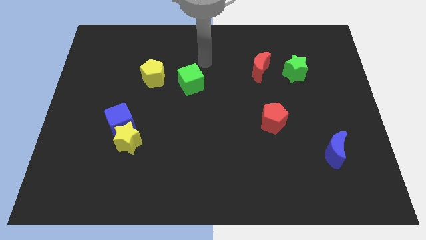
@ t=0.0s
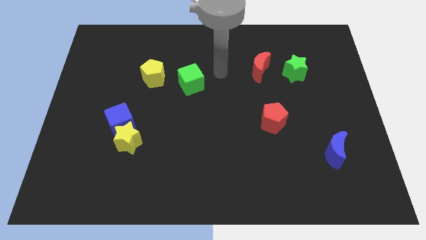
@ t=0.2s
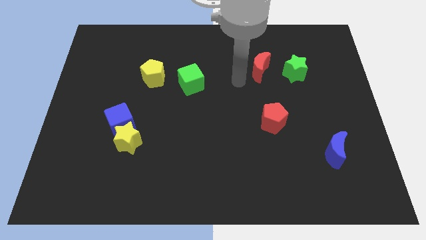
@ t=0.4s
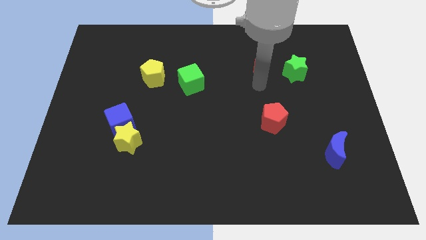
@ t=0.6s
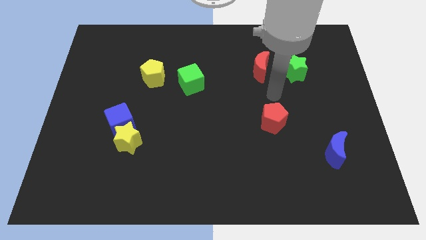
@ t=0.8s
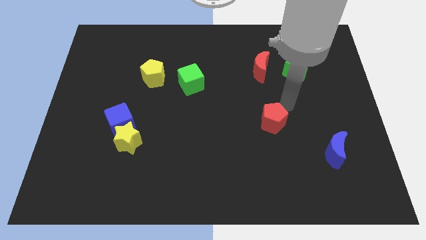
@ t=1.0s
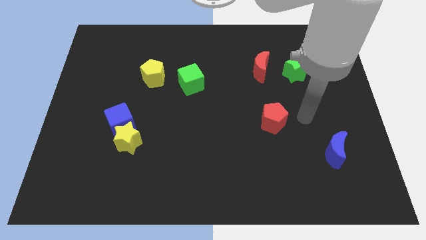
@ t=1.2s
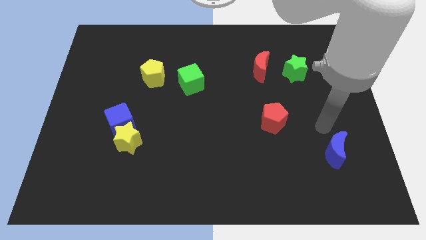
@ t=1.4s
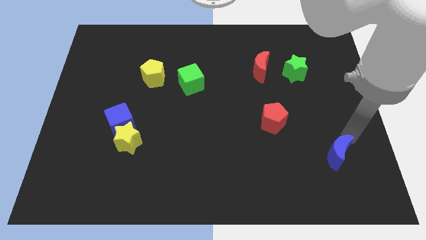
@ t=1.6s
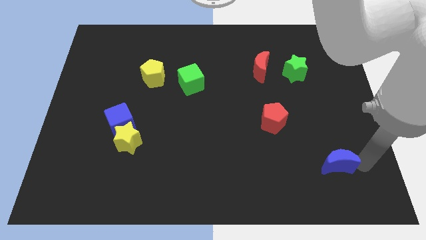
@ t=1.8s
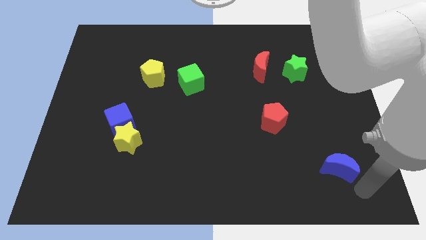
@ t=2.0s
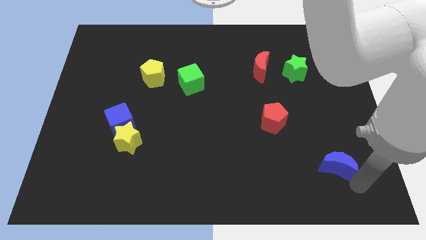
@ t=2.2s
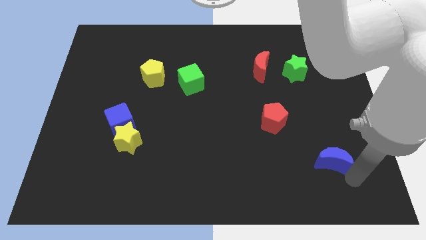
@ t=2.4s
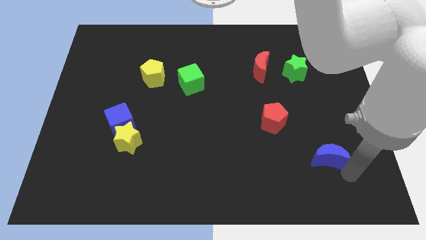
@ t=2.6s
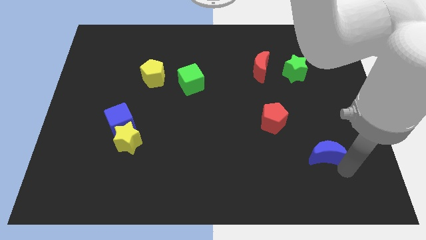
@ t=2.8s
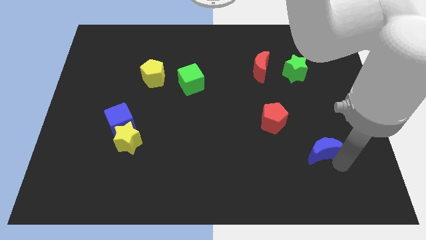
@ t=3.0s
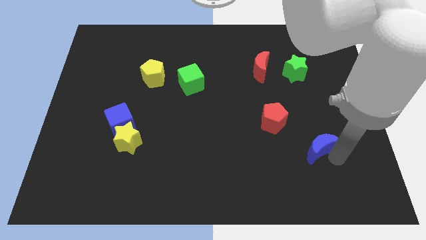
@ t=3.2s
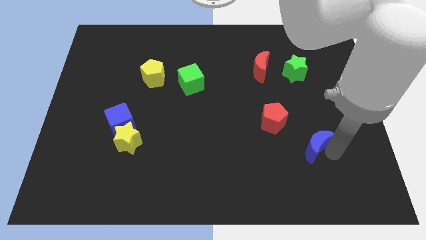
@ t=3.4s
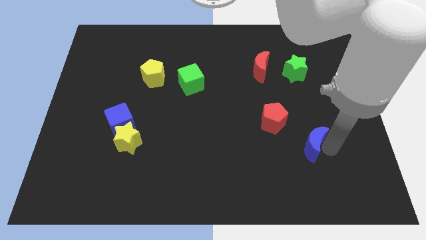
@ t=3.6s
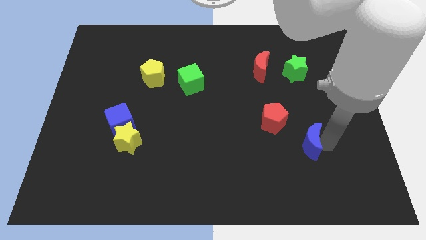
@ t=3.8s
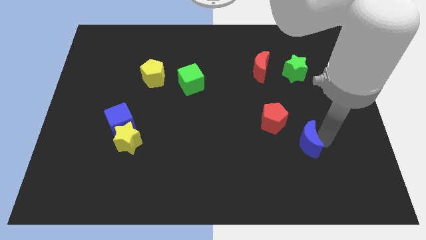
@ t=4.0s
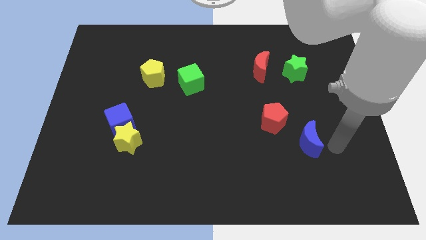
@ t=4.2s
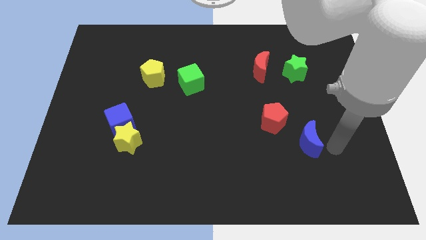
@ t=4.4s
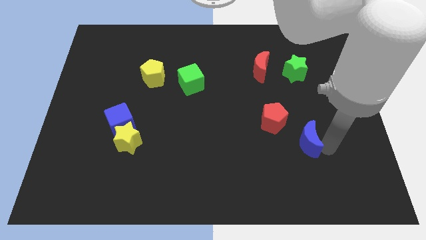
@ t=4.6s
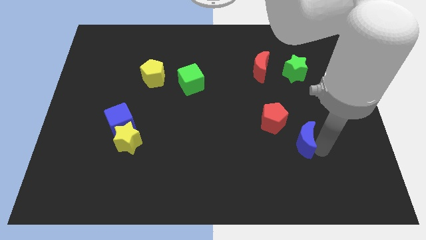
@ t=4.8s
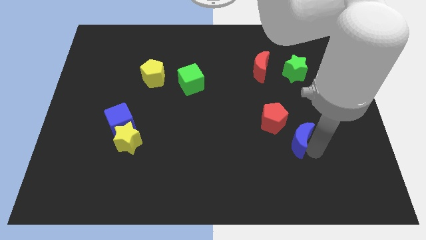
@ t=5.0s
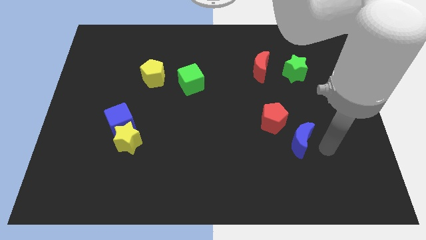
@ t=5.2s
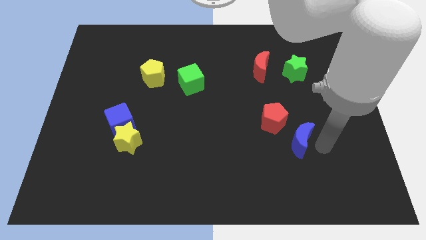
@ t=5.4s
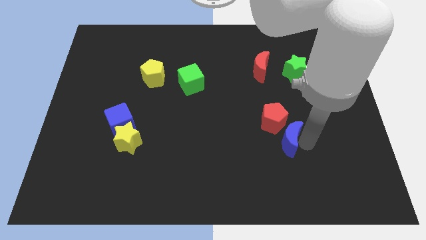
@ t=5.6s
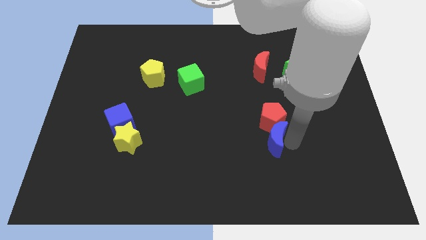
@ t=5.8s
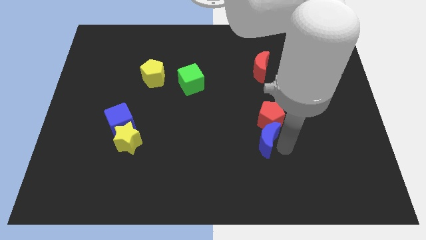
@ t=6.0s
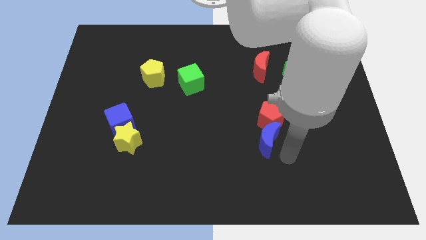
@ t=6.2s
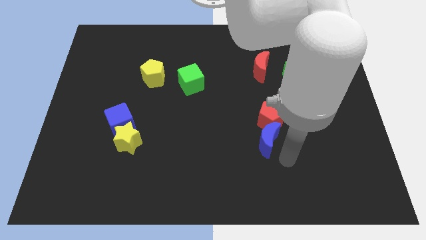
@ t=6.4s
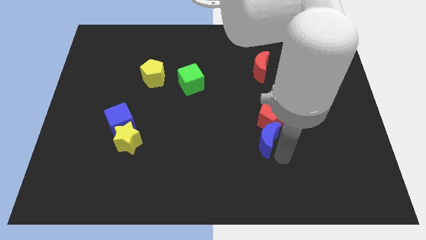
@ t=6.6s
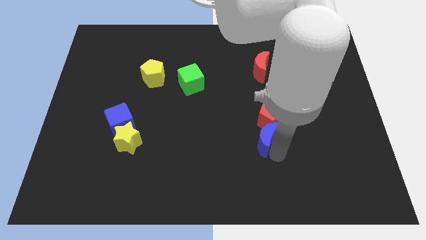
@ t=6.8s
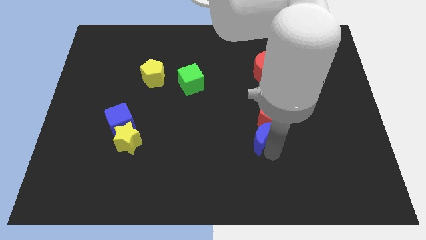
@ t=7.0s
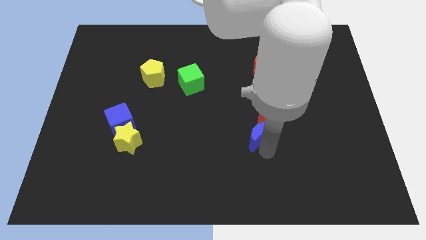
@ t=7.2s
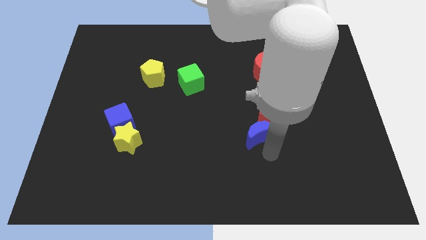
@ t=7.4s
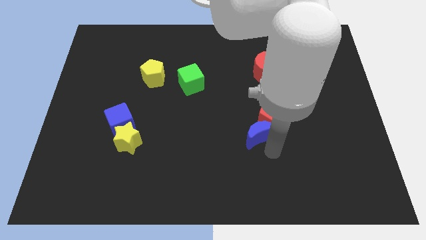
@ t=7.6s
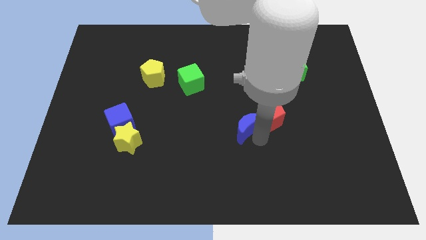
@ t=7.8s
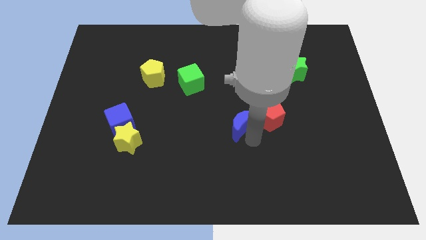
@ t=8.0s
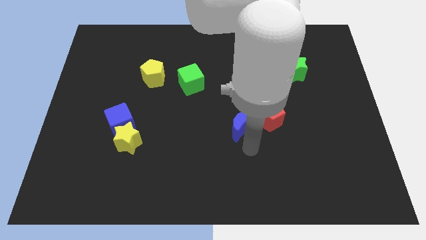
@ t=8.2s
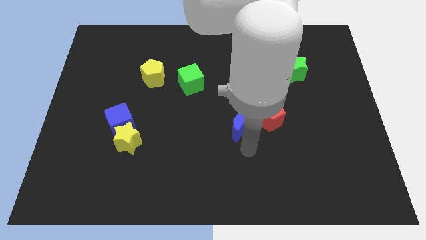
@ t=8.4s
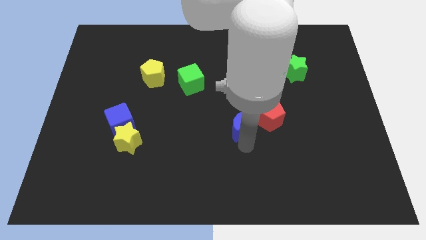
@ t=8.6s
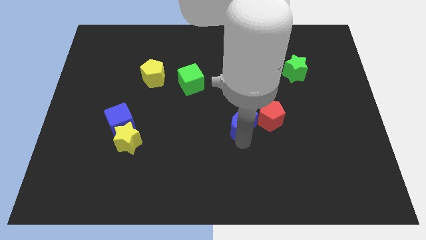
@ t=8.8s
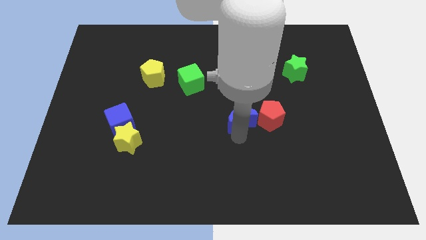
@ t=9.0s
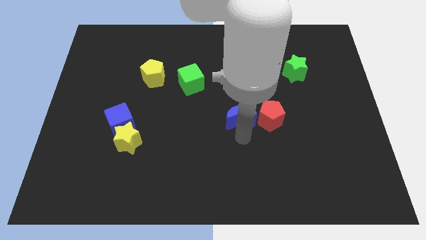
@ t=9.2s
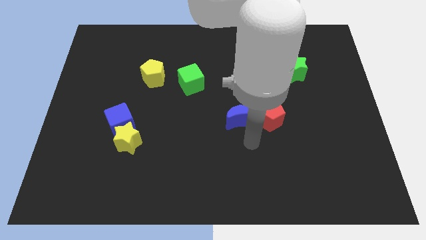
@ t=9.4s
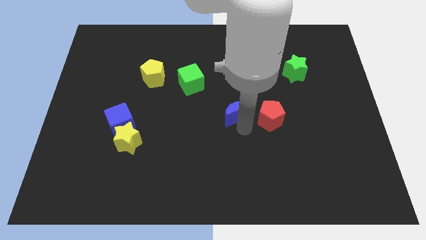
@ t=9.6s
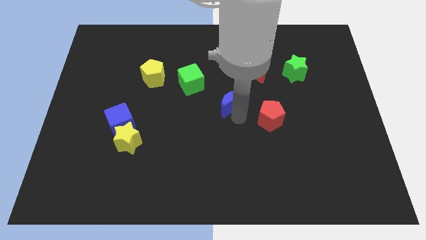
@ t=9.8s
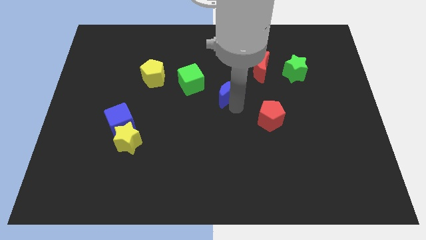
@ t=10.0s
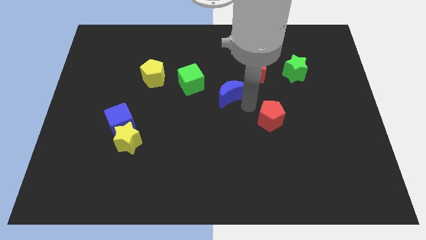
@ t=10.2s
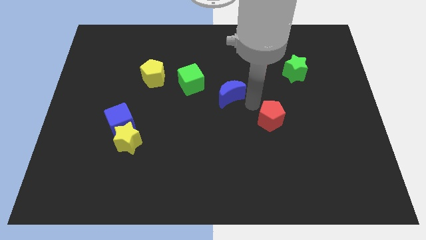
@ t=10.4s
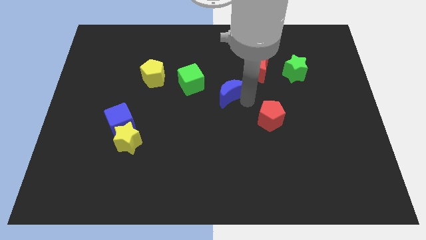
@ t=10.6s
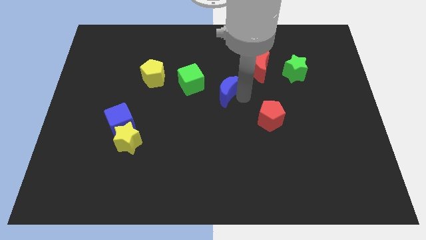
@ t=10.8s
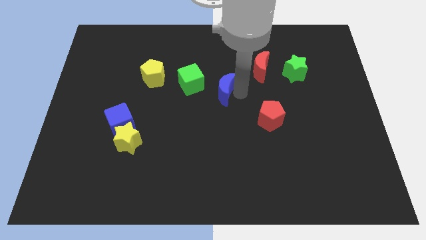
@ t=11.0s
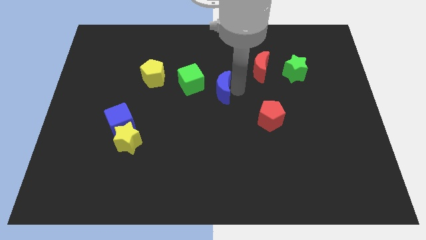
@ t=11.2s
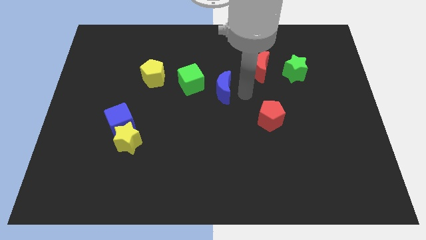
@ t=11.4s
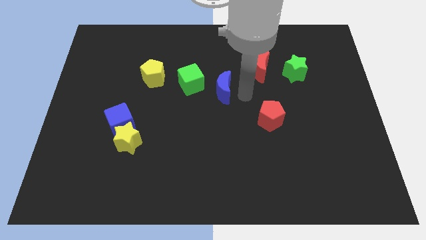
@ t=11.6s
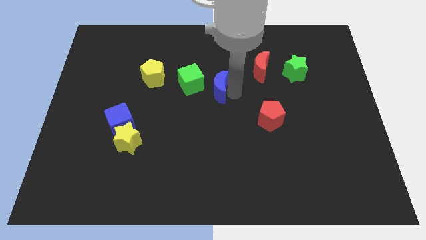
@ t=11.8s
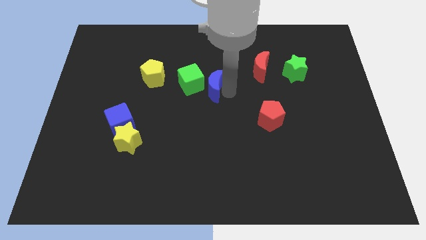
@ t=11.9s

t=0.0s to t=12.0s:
put the blue moon towards the green cube

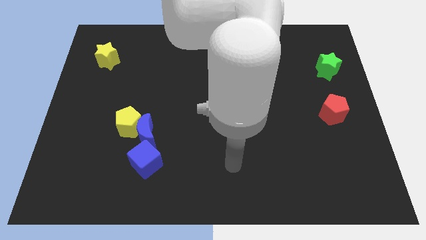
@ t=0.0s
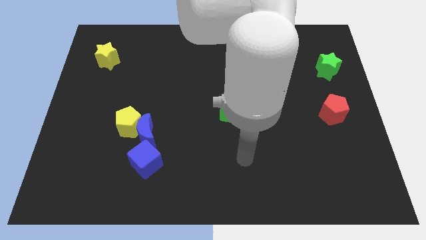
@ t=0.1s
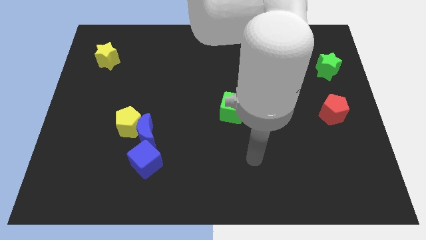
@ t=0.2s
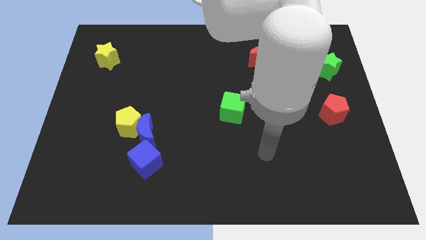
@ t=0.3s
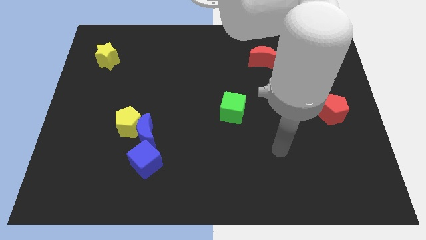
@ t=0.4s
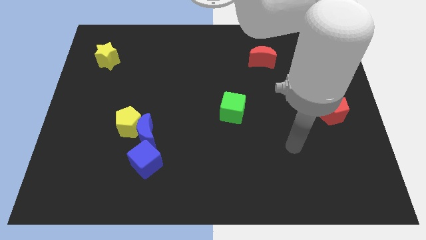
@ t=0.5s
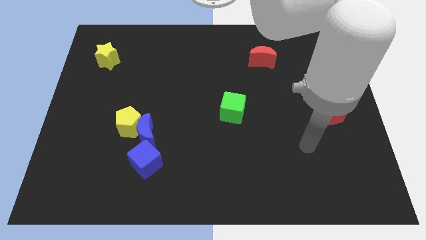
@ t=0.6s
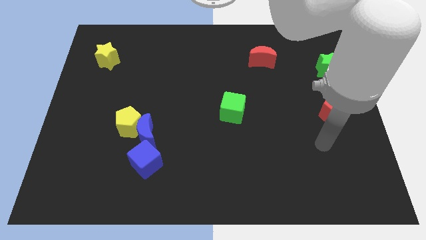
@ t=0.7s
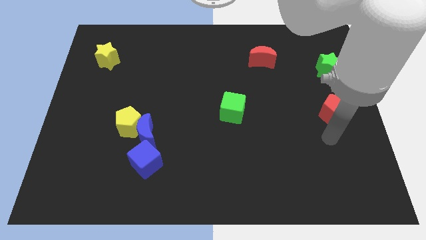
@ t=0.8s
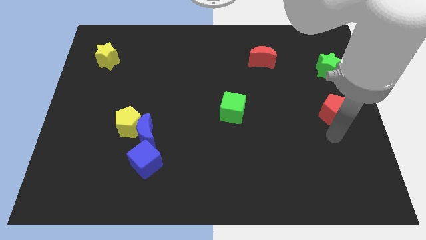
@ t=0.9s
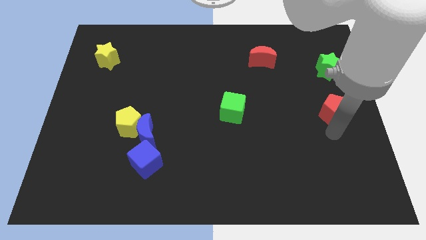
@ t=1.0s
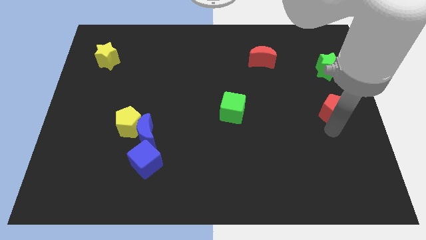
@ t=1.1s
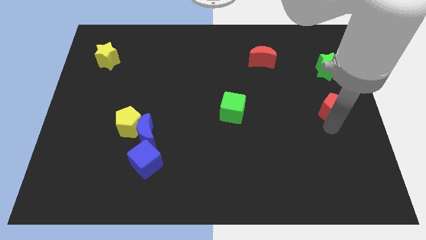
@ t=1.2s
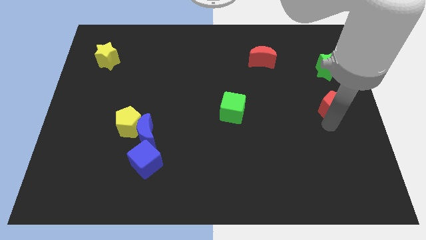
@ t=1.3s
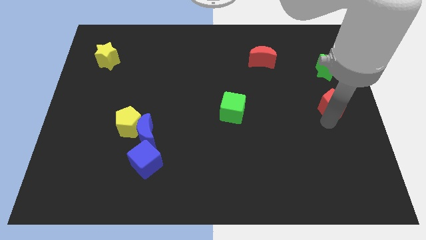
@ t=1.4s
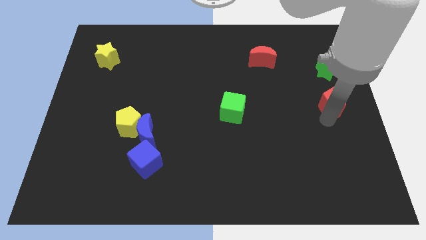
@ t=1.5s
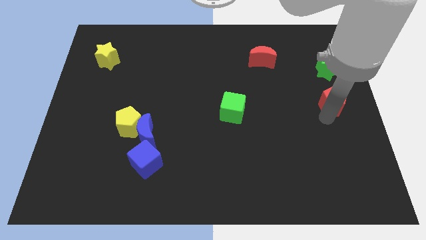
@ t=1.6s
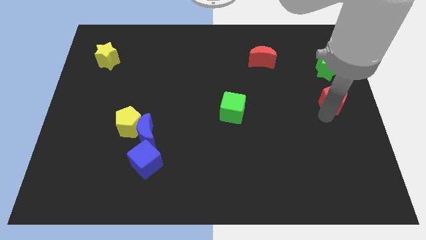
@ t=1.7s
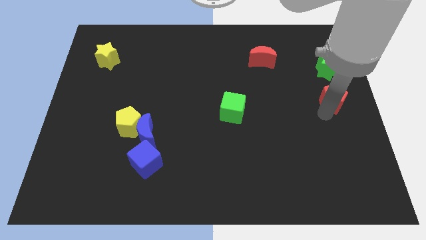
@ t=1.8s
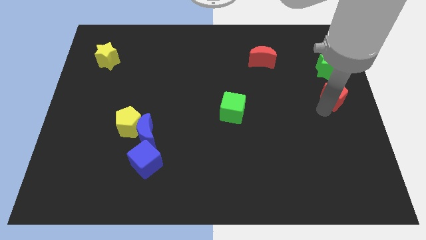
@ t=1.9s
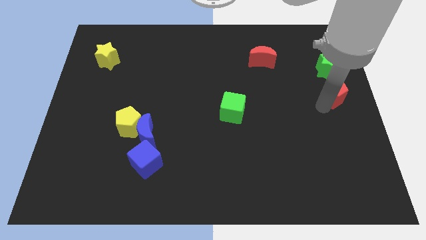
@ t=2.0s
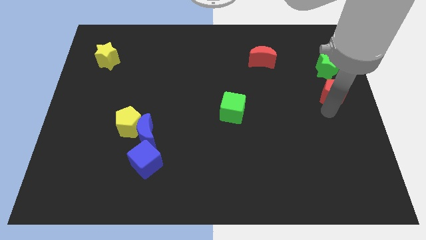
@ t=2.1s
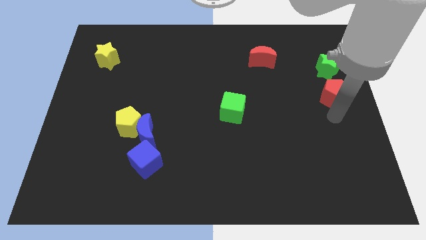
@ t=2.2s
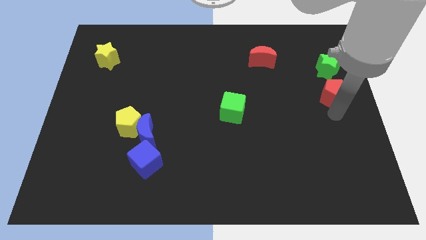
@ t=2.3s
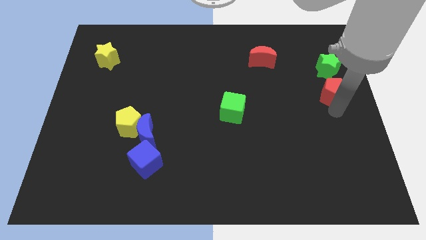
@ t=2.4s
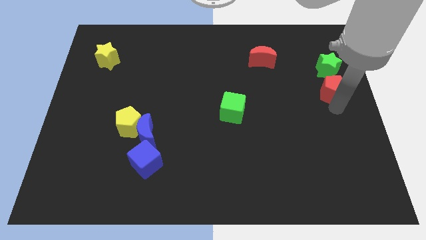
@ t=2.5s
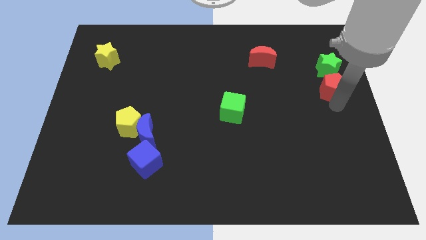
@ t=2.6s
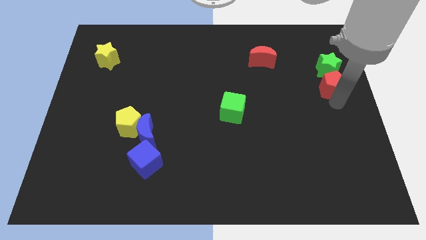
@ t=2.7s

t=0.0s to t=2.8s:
put the red pentagon next to the green star
